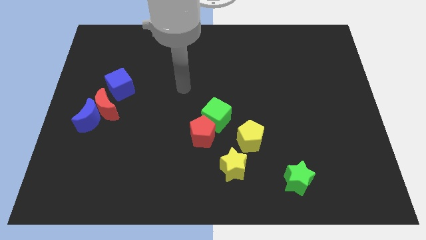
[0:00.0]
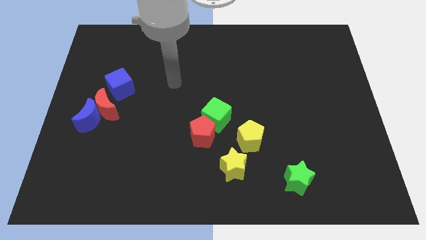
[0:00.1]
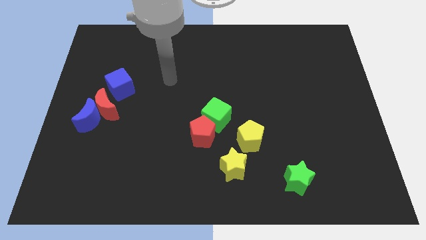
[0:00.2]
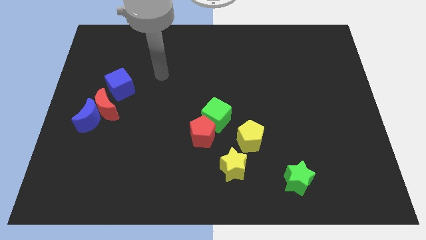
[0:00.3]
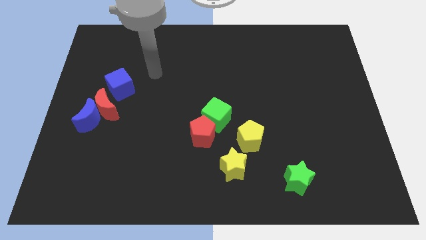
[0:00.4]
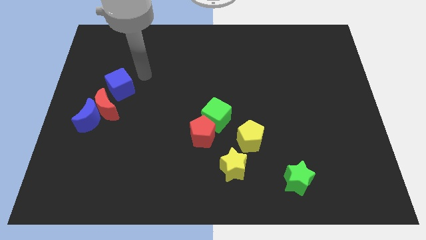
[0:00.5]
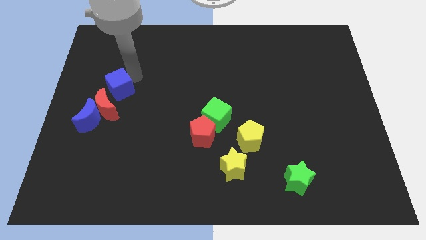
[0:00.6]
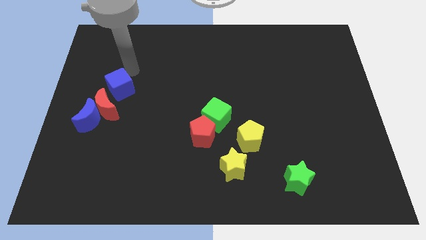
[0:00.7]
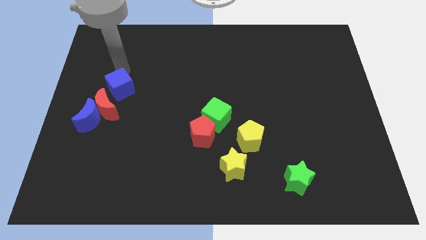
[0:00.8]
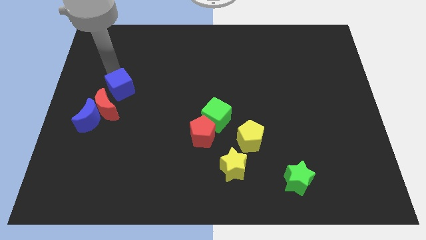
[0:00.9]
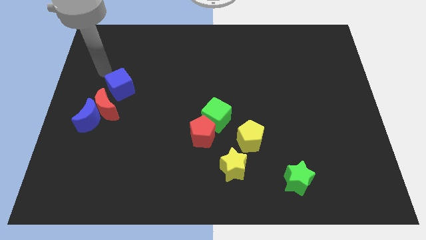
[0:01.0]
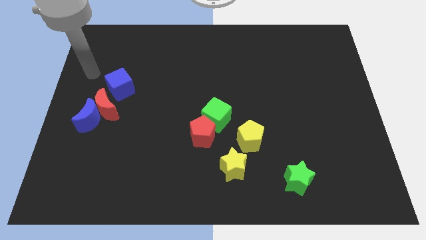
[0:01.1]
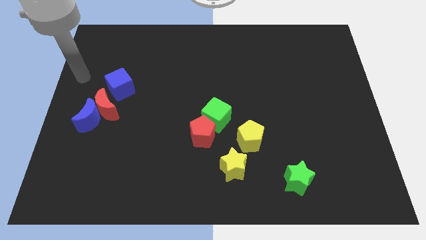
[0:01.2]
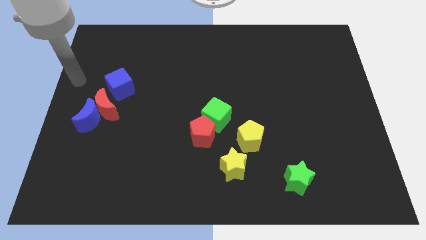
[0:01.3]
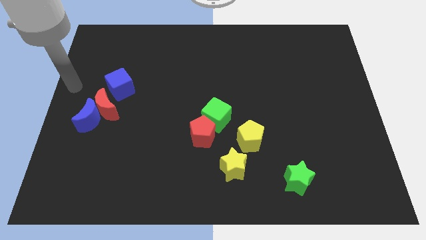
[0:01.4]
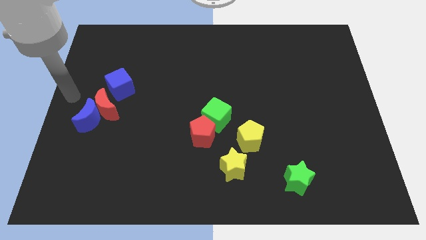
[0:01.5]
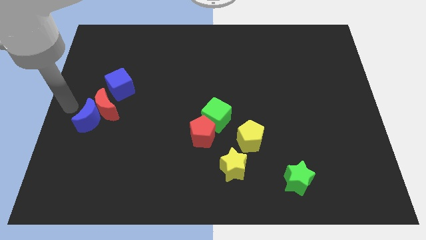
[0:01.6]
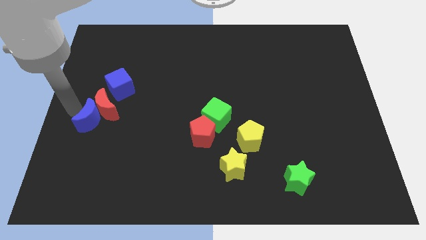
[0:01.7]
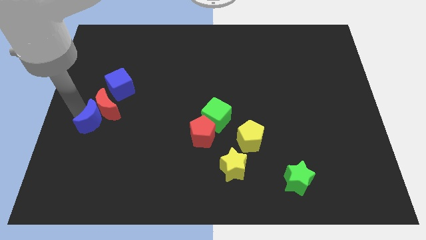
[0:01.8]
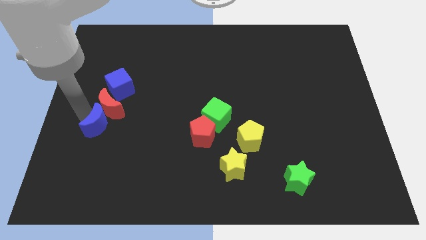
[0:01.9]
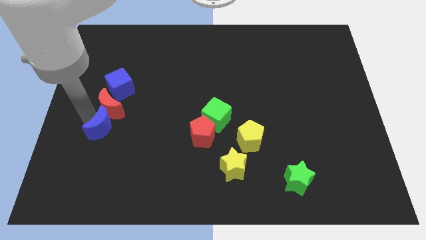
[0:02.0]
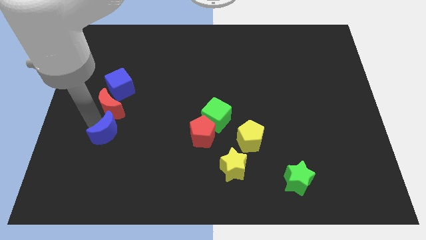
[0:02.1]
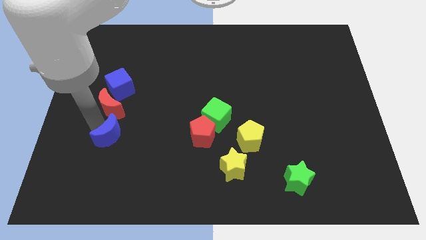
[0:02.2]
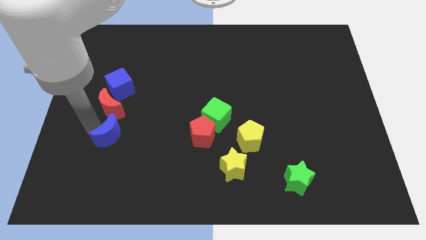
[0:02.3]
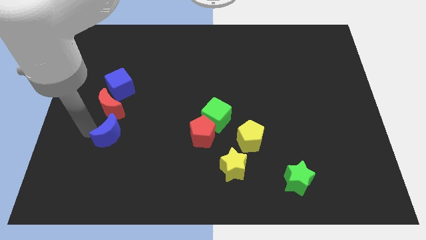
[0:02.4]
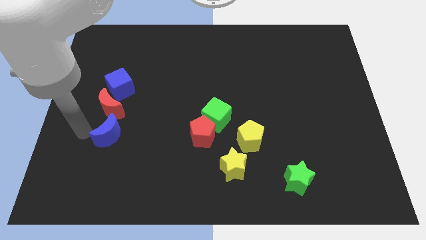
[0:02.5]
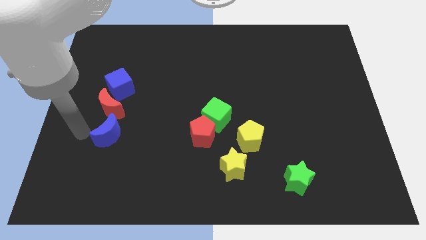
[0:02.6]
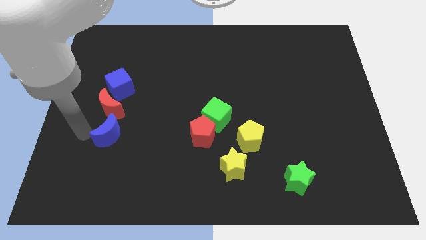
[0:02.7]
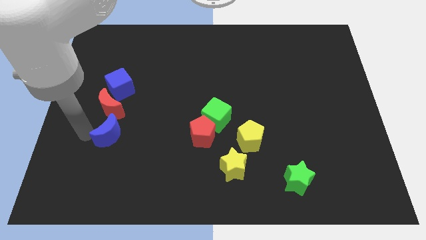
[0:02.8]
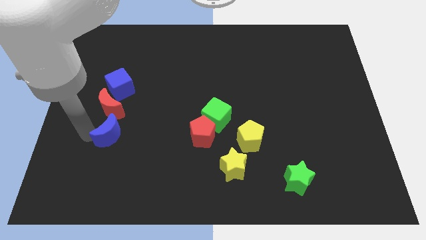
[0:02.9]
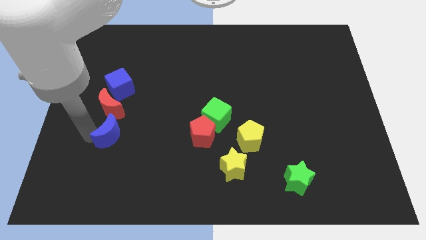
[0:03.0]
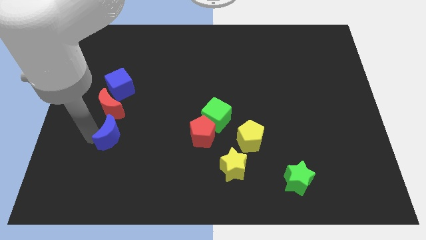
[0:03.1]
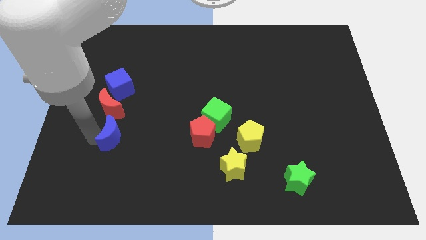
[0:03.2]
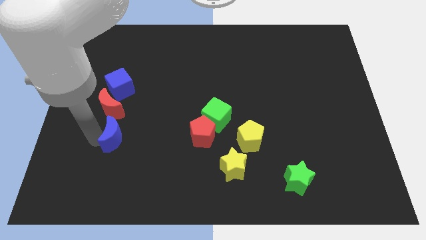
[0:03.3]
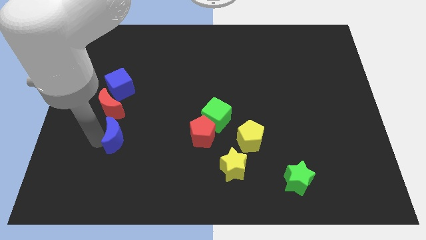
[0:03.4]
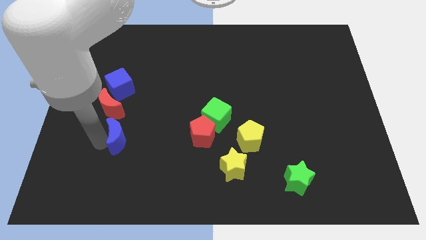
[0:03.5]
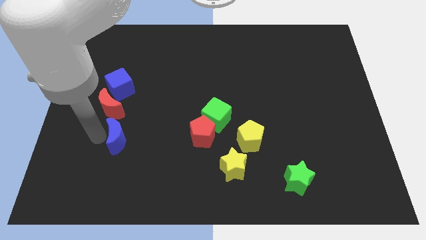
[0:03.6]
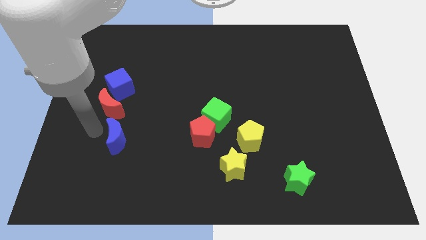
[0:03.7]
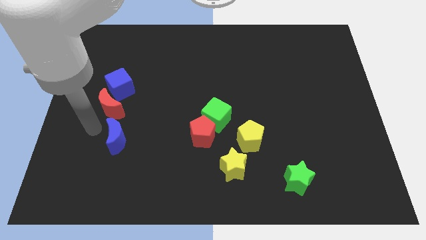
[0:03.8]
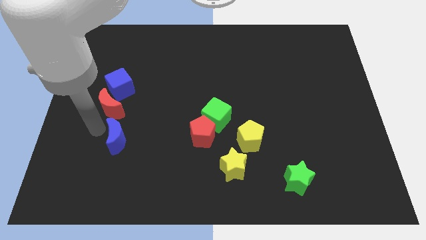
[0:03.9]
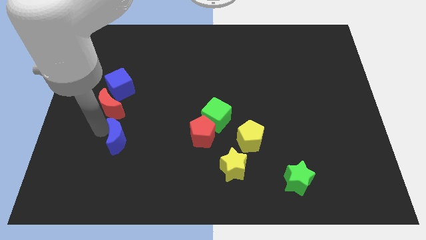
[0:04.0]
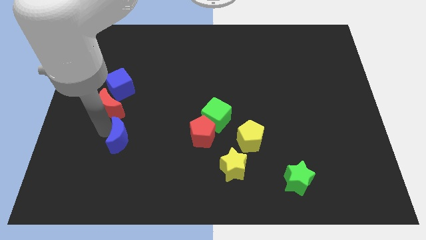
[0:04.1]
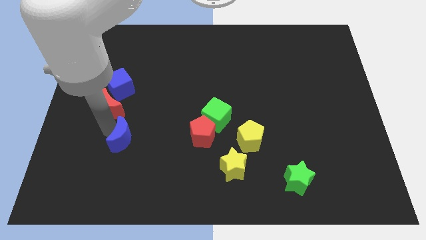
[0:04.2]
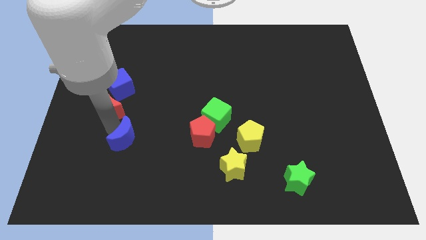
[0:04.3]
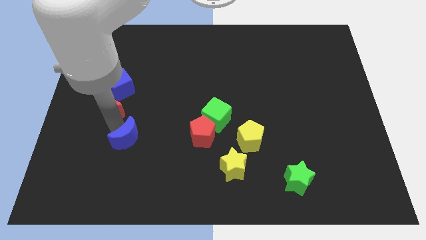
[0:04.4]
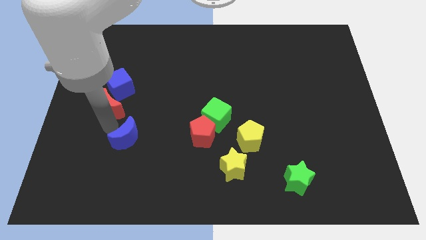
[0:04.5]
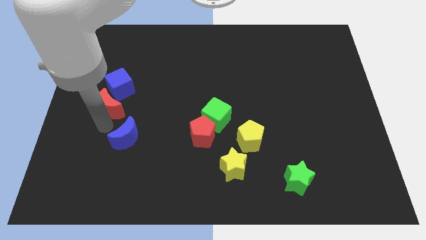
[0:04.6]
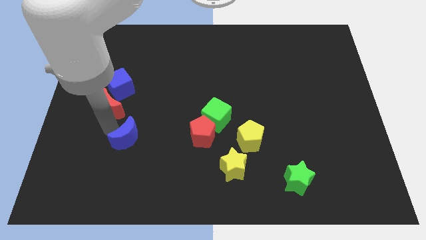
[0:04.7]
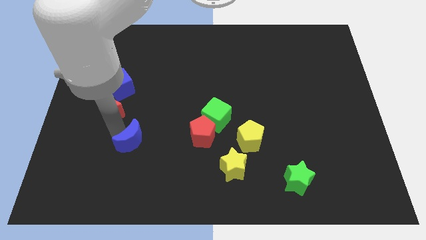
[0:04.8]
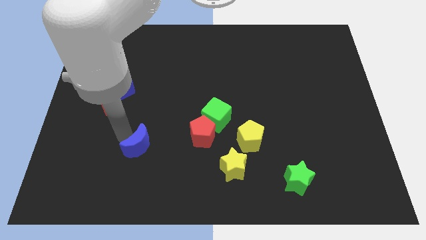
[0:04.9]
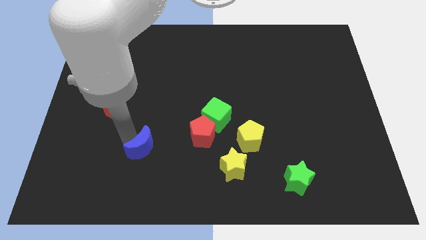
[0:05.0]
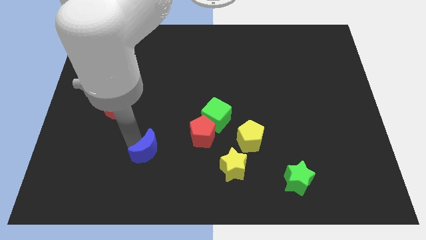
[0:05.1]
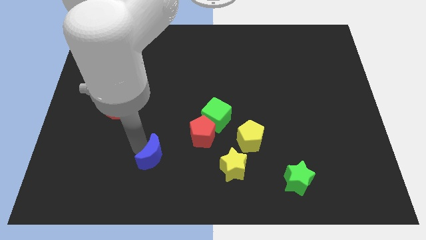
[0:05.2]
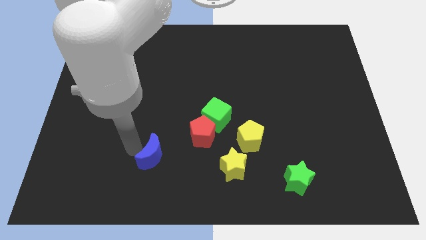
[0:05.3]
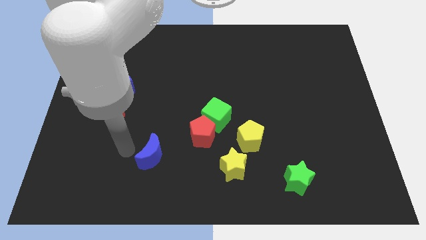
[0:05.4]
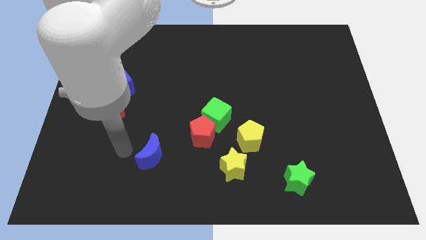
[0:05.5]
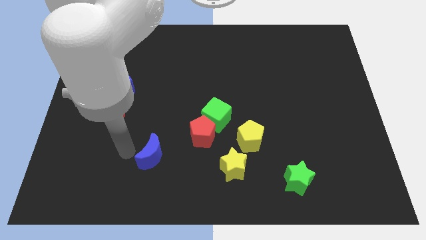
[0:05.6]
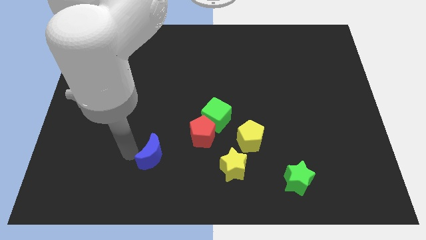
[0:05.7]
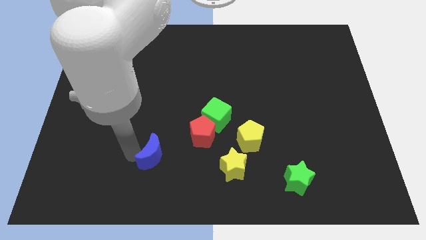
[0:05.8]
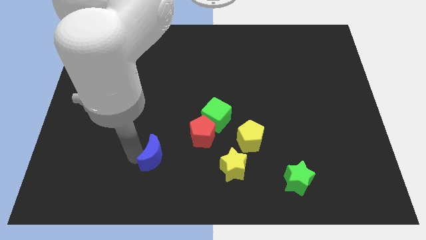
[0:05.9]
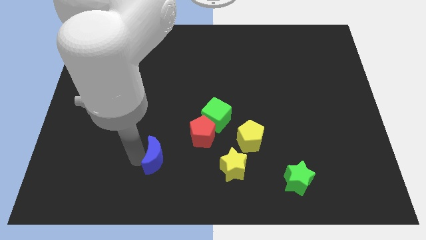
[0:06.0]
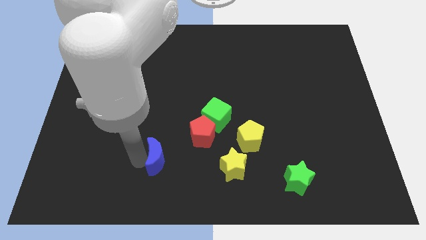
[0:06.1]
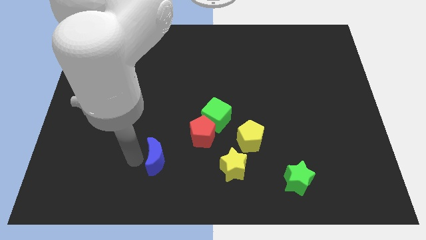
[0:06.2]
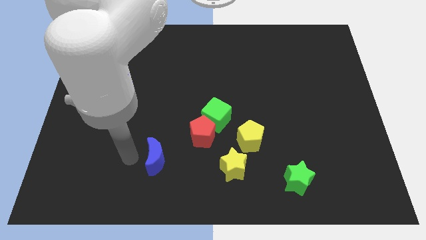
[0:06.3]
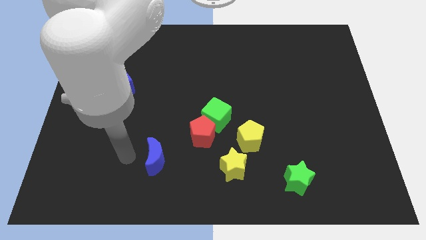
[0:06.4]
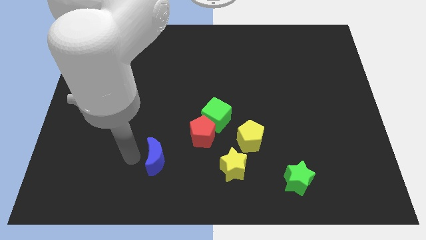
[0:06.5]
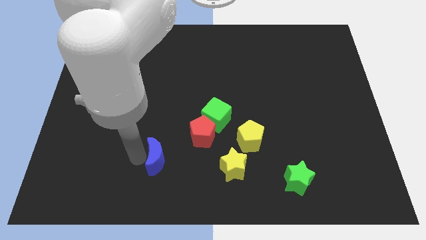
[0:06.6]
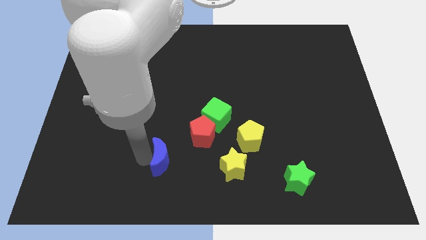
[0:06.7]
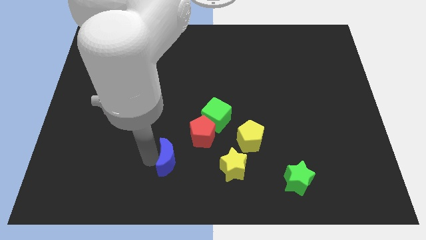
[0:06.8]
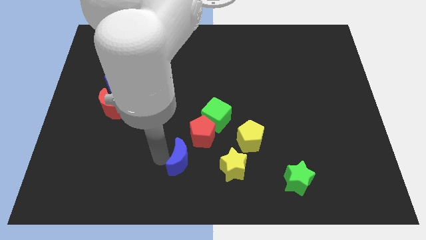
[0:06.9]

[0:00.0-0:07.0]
slide the blue moon below the red pentagon

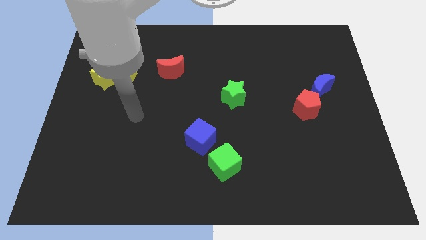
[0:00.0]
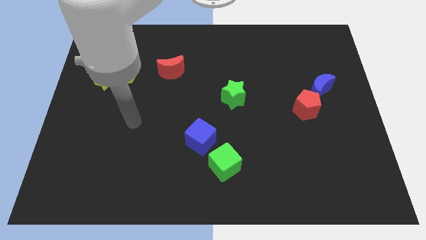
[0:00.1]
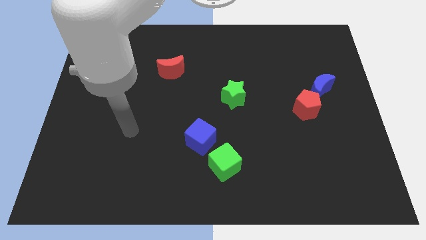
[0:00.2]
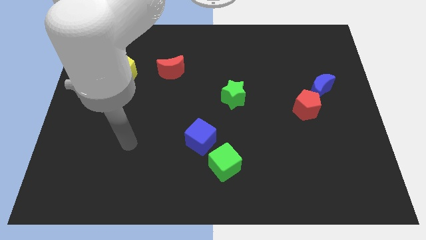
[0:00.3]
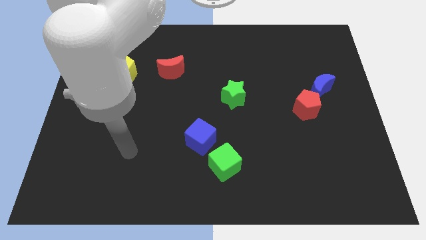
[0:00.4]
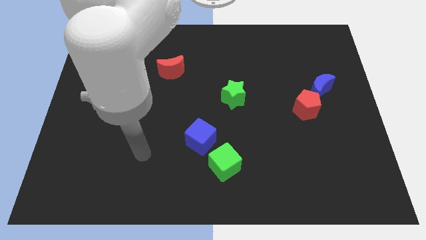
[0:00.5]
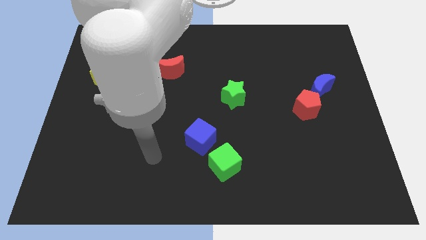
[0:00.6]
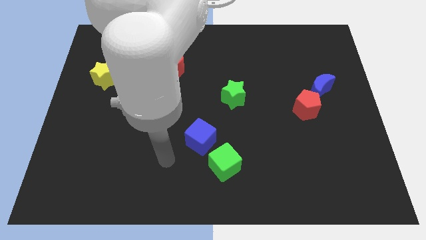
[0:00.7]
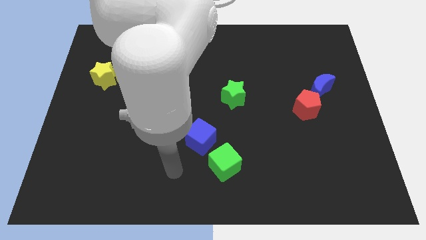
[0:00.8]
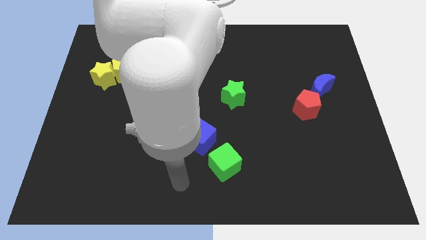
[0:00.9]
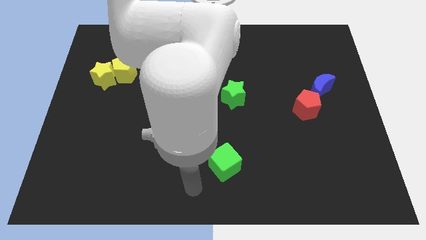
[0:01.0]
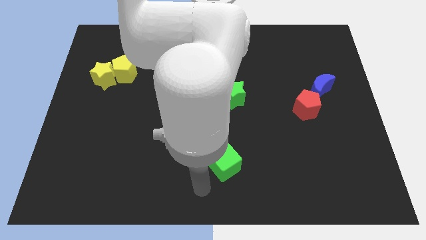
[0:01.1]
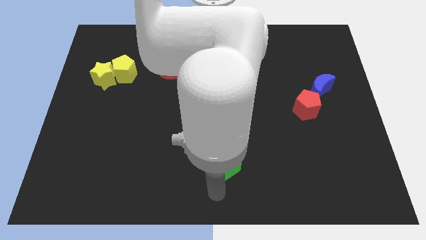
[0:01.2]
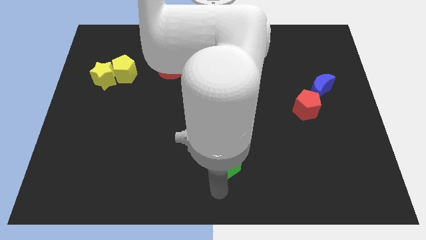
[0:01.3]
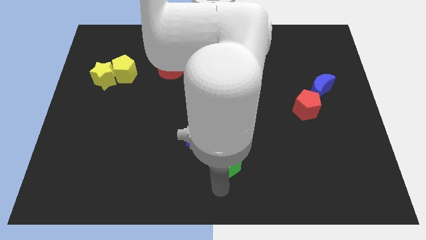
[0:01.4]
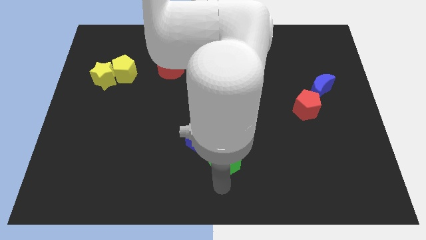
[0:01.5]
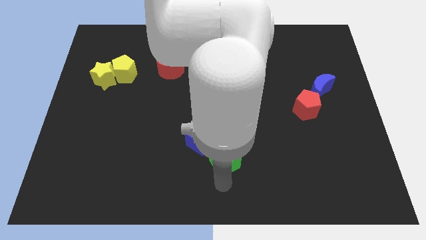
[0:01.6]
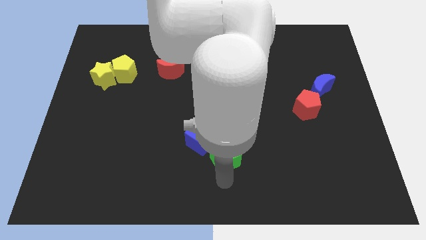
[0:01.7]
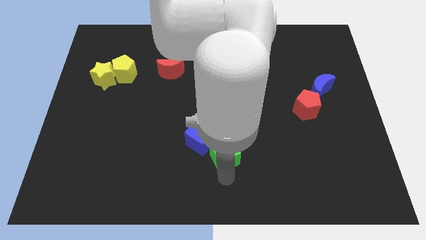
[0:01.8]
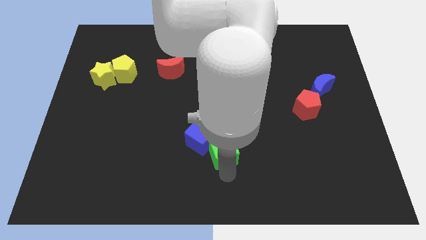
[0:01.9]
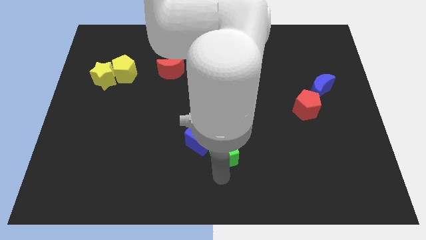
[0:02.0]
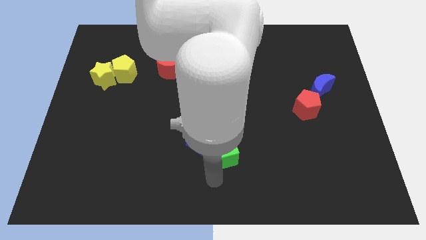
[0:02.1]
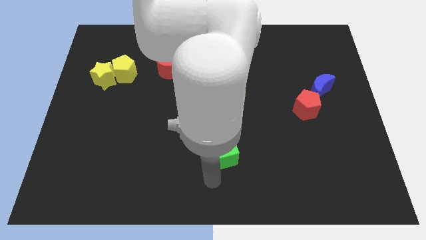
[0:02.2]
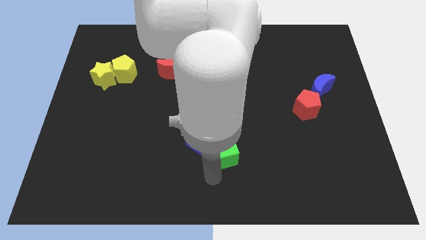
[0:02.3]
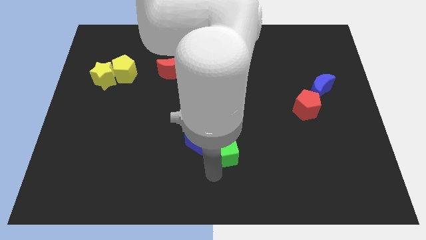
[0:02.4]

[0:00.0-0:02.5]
push the green cube to the bottom side of the green star
